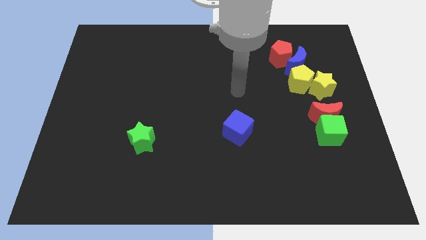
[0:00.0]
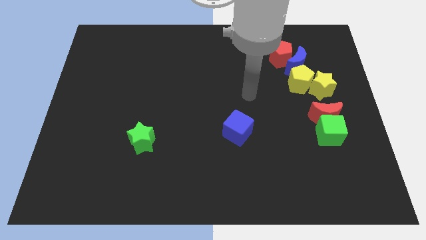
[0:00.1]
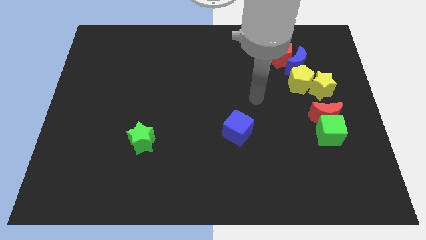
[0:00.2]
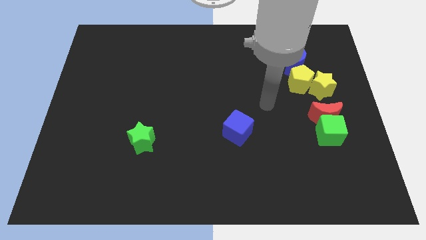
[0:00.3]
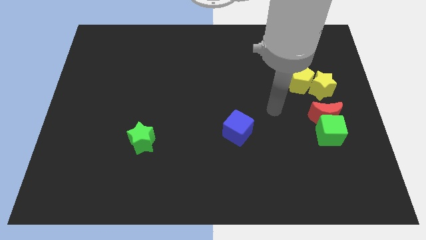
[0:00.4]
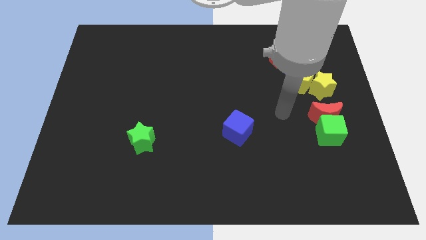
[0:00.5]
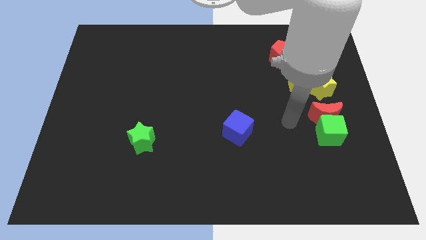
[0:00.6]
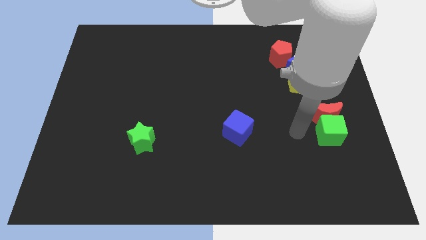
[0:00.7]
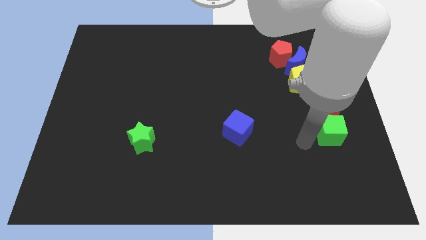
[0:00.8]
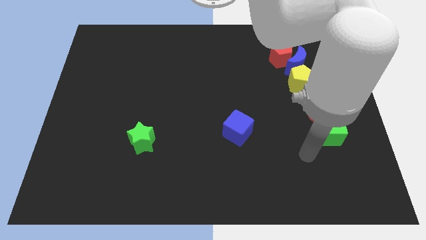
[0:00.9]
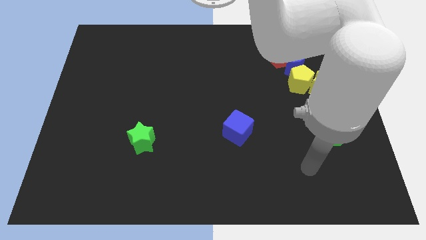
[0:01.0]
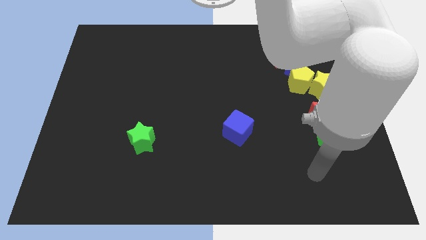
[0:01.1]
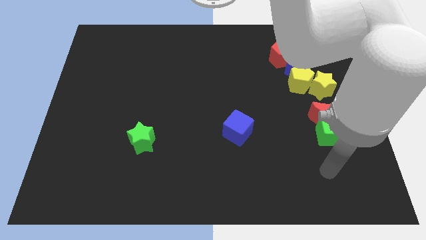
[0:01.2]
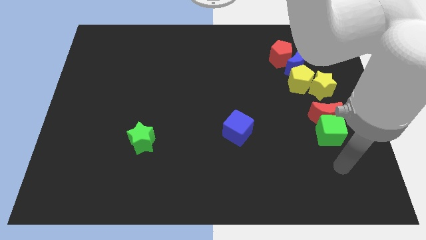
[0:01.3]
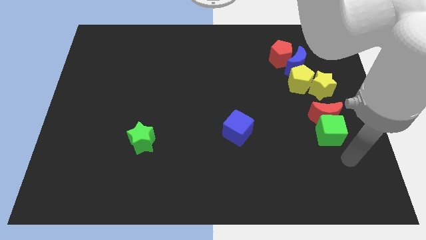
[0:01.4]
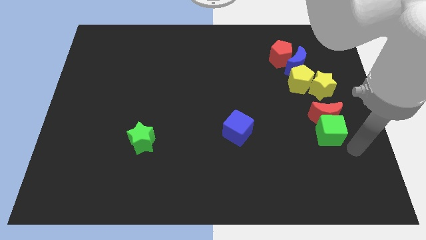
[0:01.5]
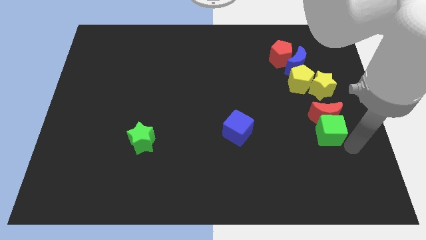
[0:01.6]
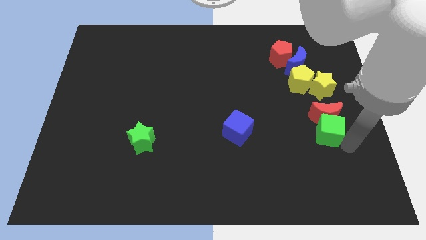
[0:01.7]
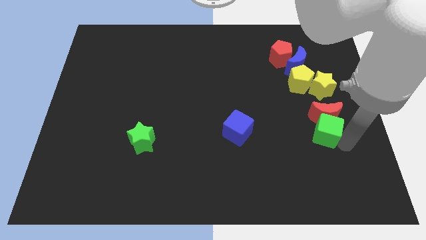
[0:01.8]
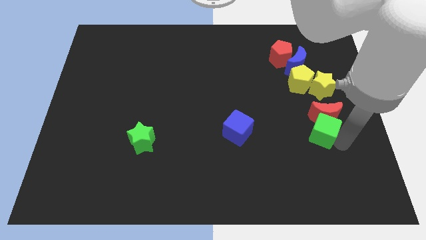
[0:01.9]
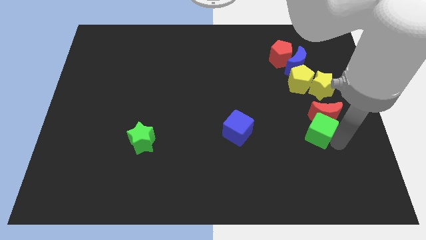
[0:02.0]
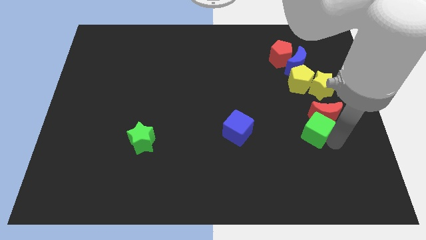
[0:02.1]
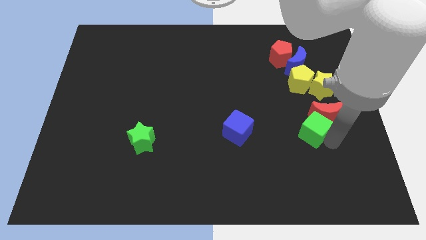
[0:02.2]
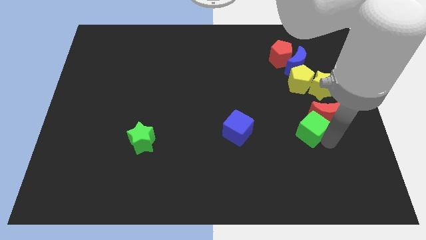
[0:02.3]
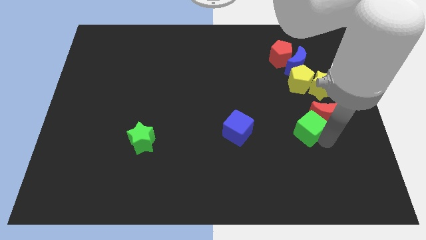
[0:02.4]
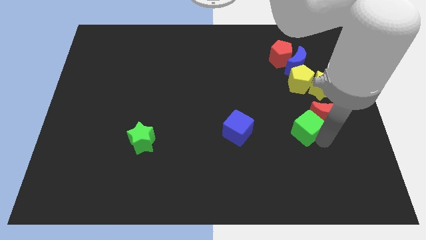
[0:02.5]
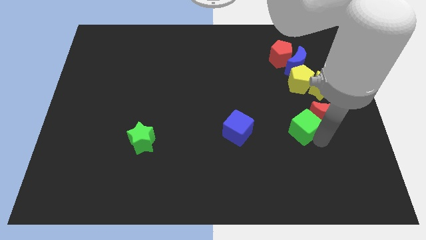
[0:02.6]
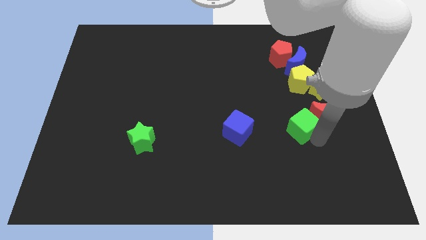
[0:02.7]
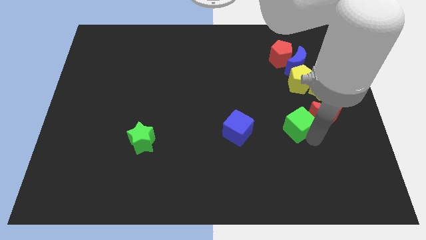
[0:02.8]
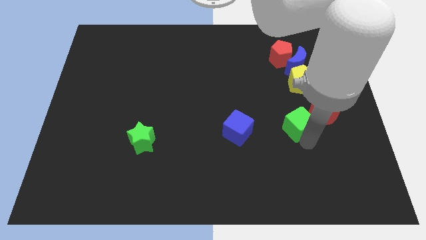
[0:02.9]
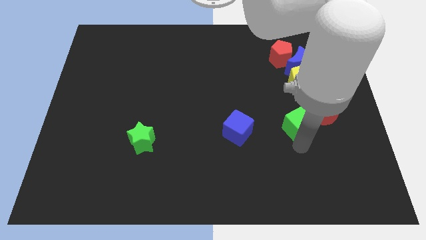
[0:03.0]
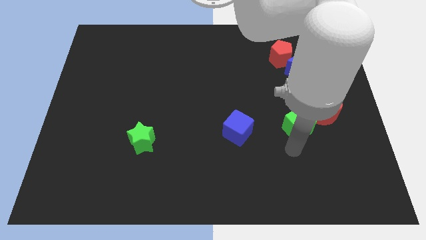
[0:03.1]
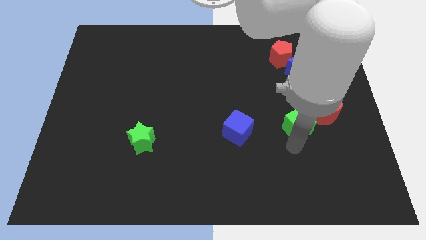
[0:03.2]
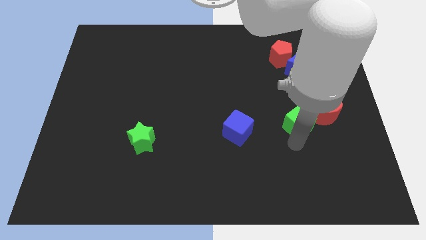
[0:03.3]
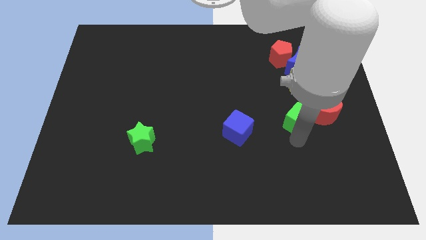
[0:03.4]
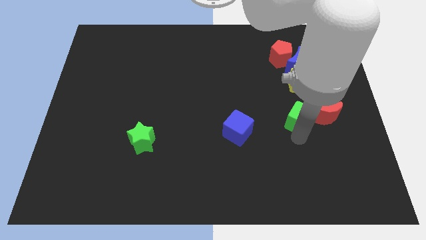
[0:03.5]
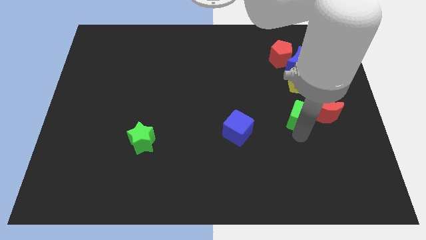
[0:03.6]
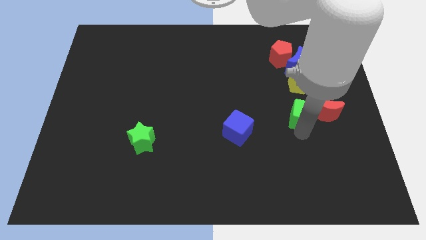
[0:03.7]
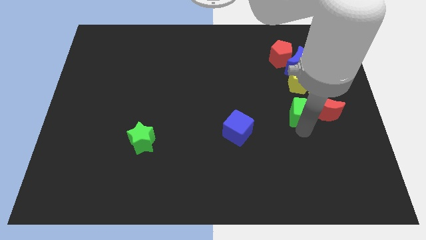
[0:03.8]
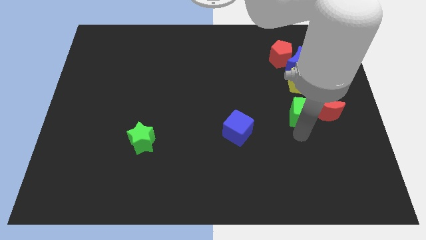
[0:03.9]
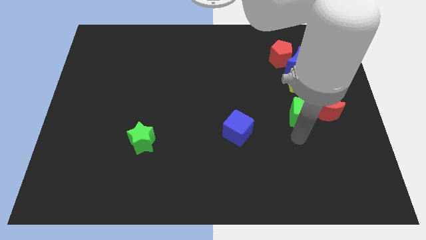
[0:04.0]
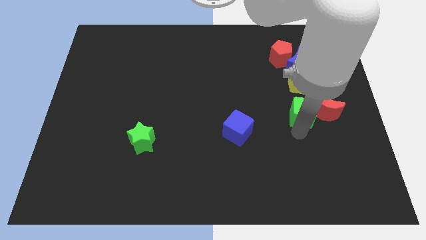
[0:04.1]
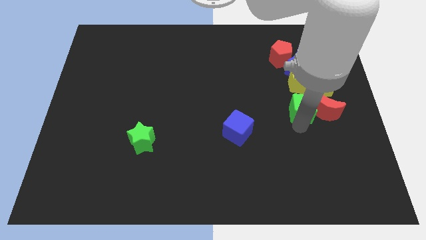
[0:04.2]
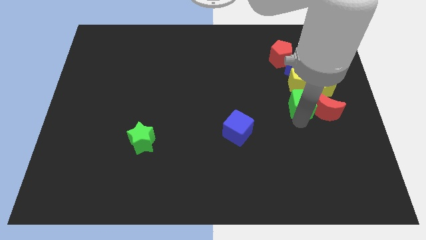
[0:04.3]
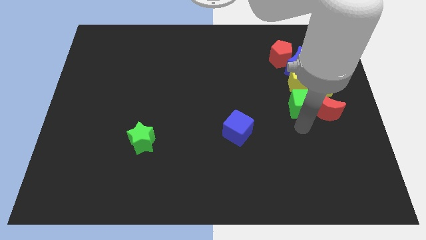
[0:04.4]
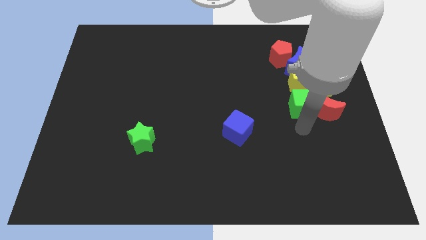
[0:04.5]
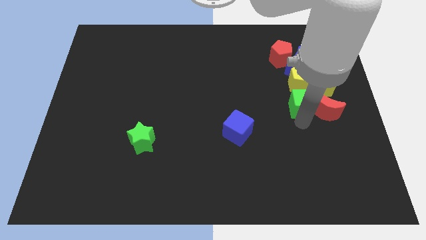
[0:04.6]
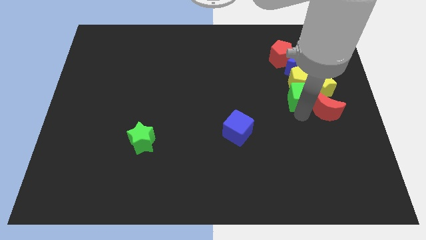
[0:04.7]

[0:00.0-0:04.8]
slide the green cube towards the yellow pentagon

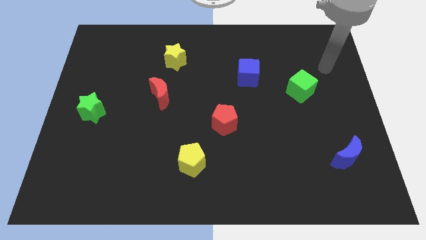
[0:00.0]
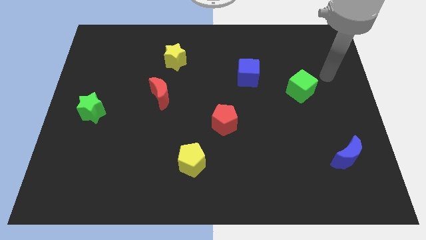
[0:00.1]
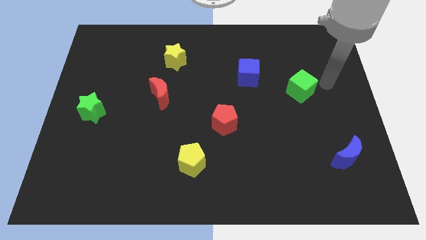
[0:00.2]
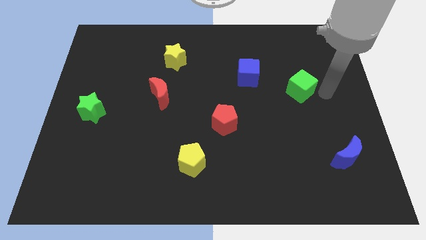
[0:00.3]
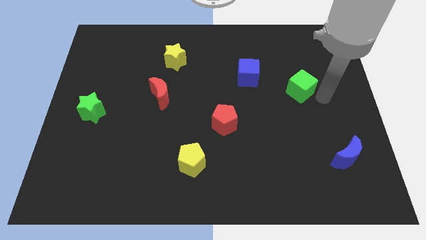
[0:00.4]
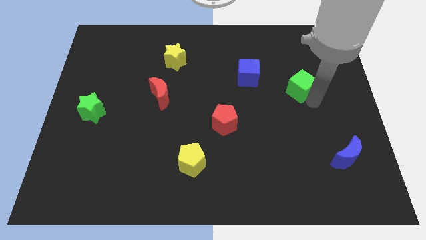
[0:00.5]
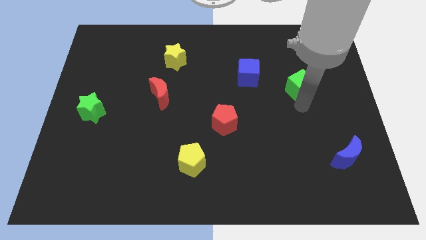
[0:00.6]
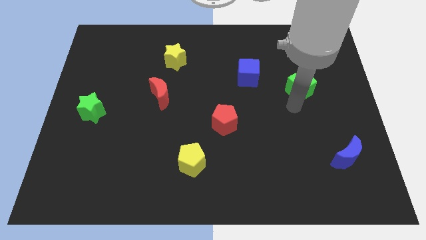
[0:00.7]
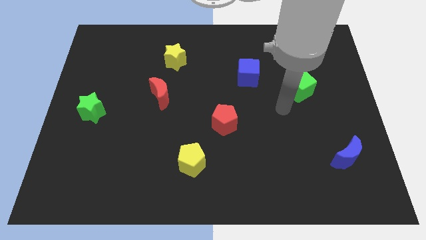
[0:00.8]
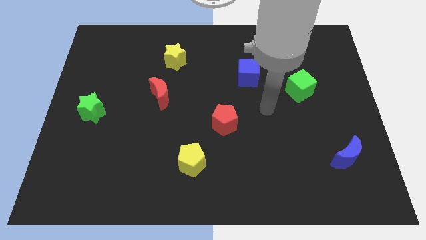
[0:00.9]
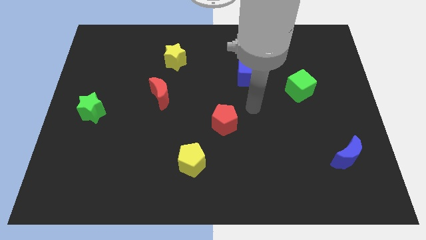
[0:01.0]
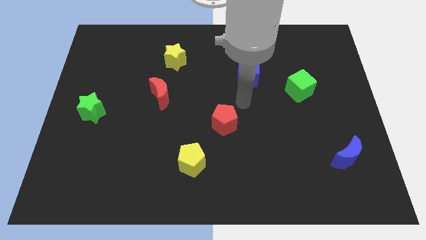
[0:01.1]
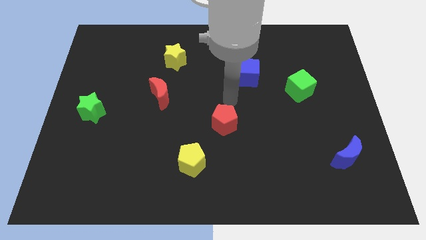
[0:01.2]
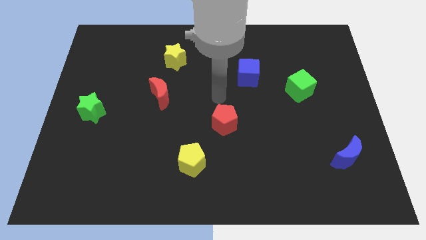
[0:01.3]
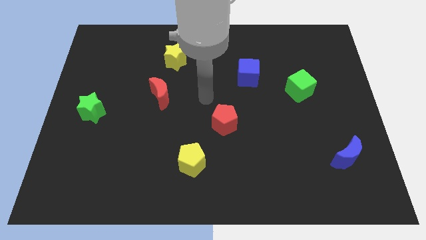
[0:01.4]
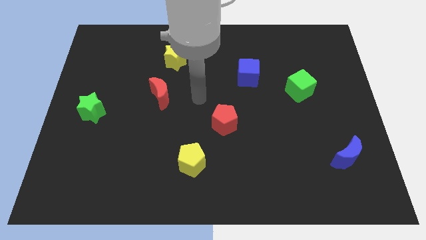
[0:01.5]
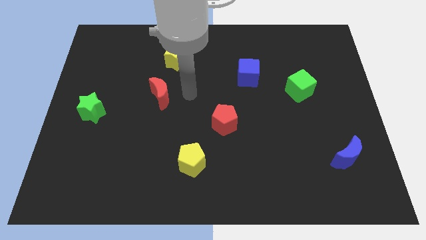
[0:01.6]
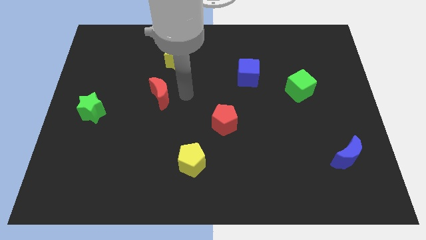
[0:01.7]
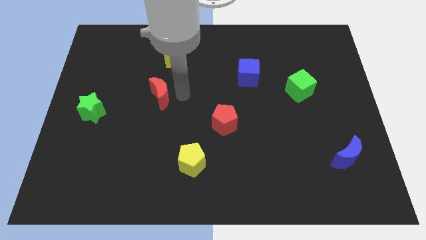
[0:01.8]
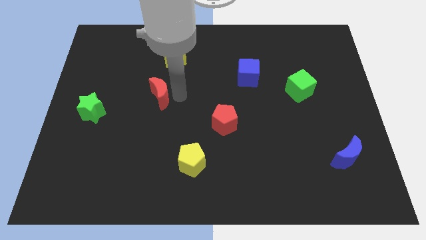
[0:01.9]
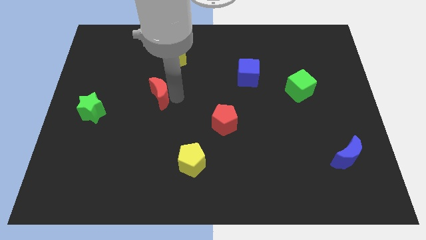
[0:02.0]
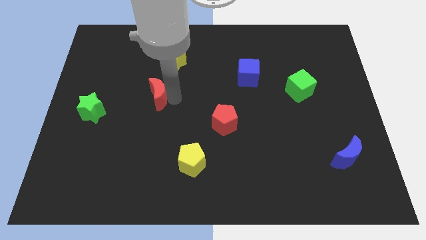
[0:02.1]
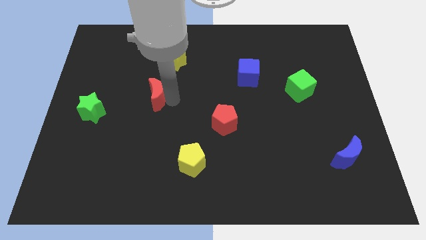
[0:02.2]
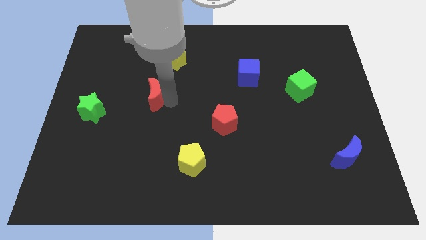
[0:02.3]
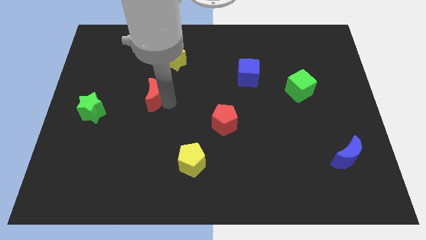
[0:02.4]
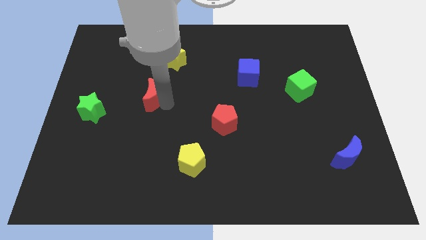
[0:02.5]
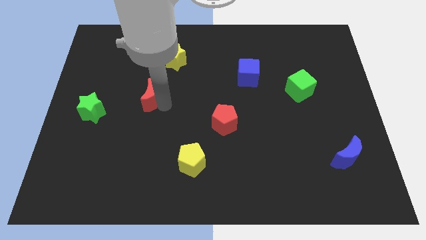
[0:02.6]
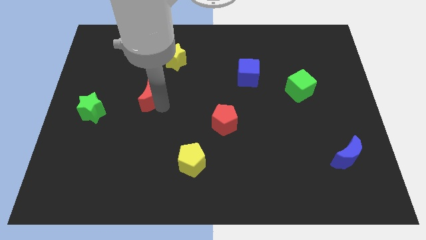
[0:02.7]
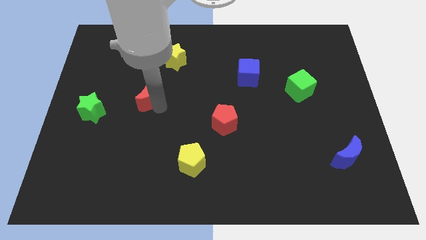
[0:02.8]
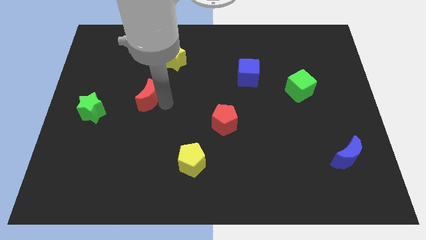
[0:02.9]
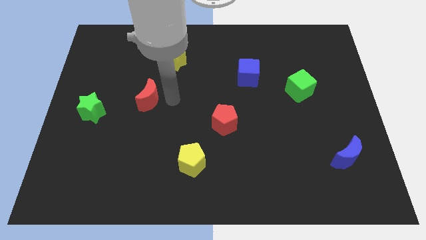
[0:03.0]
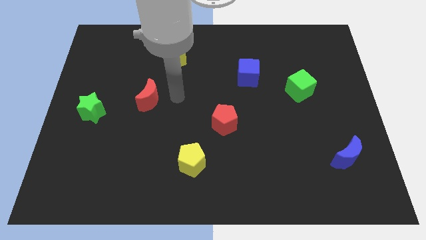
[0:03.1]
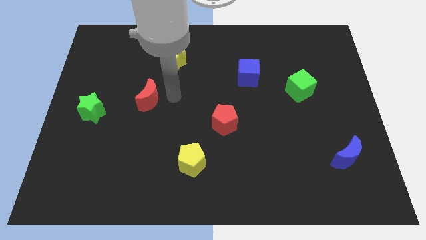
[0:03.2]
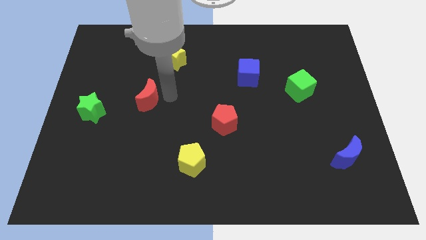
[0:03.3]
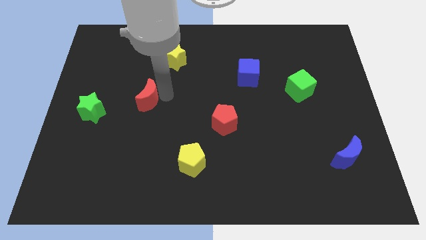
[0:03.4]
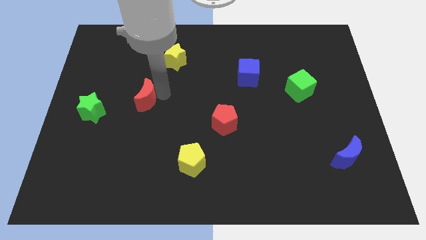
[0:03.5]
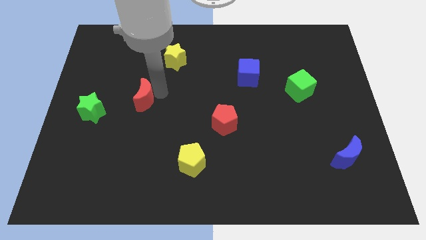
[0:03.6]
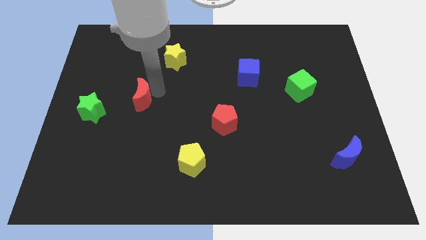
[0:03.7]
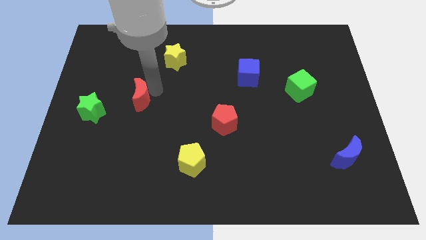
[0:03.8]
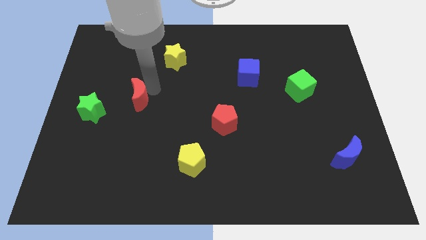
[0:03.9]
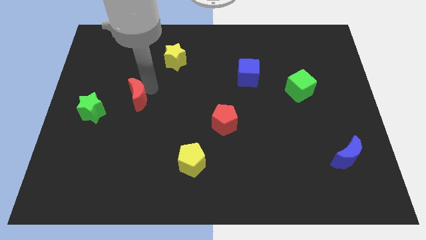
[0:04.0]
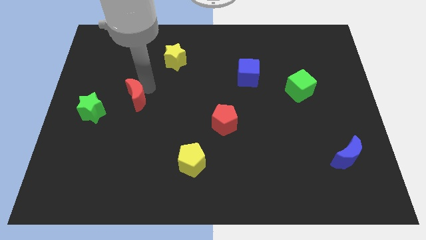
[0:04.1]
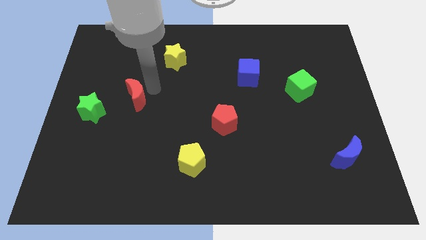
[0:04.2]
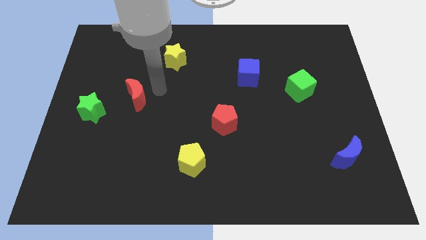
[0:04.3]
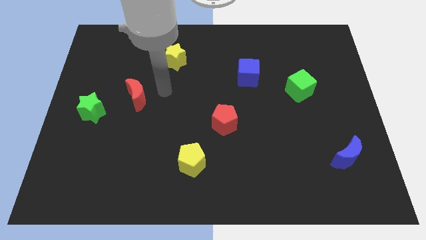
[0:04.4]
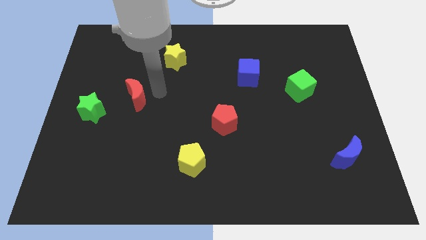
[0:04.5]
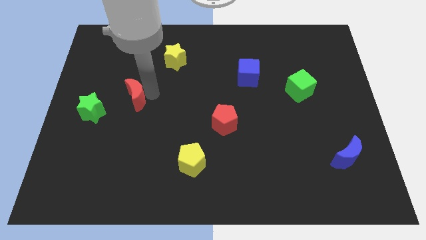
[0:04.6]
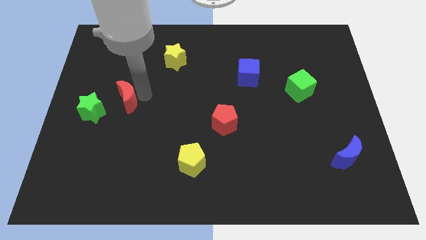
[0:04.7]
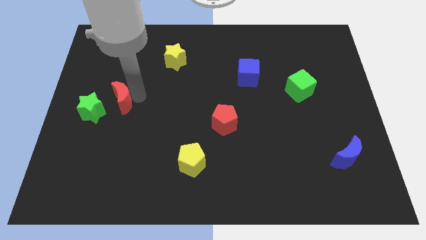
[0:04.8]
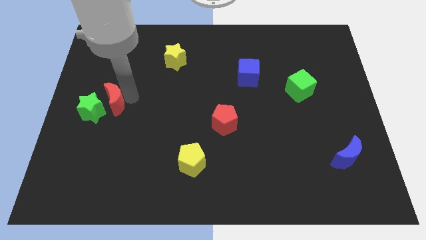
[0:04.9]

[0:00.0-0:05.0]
slide the red moon close to the green star
